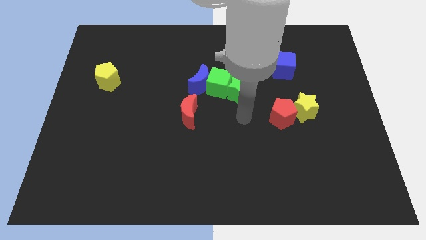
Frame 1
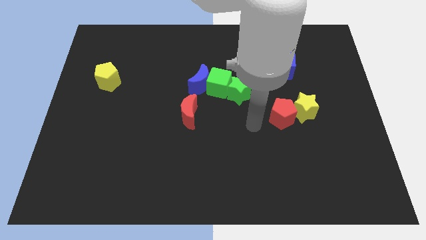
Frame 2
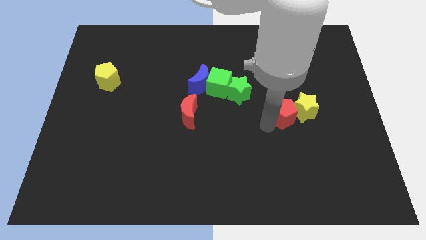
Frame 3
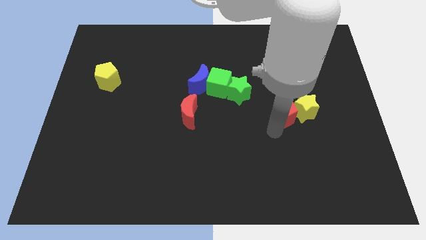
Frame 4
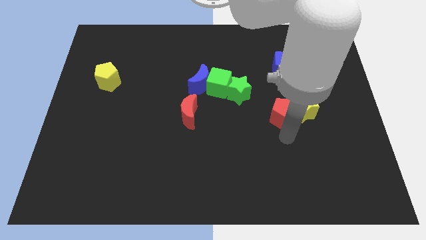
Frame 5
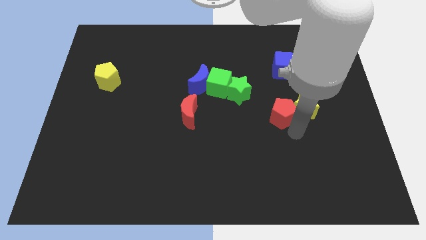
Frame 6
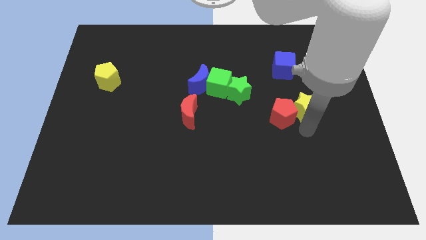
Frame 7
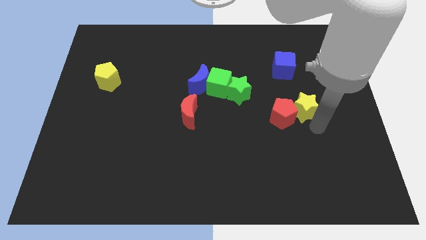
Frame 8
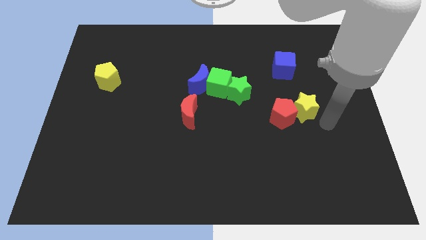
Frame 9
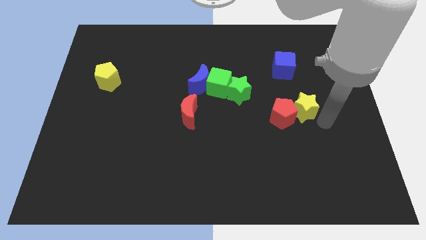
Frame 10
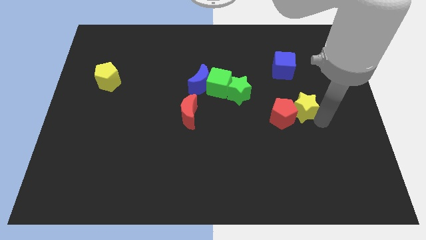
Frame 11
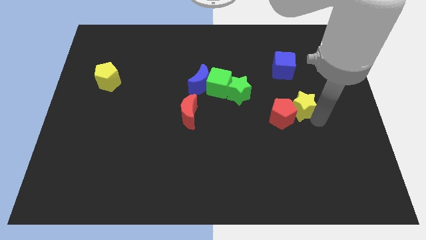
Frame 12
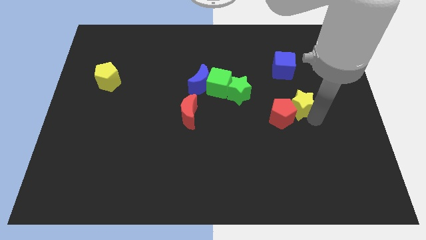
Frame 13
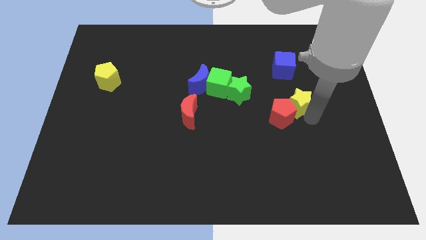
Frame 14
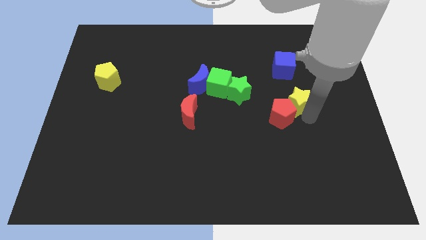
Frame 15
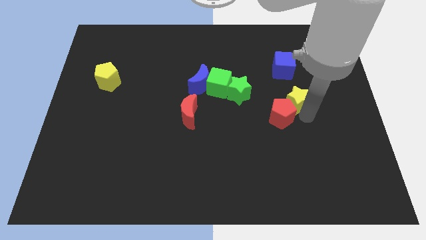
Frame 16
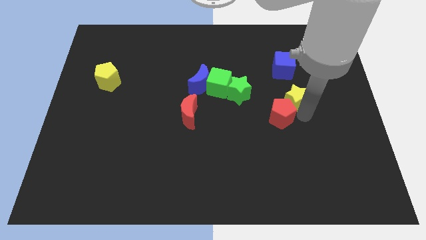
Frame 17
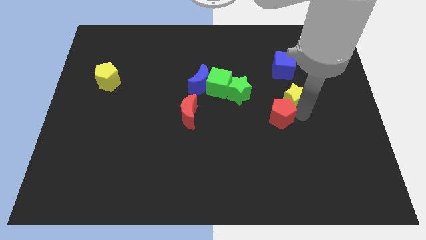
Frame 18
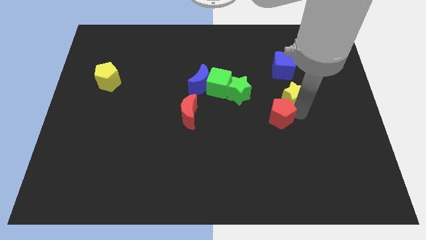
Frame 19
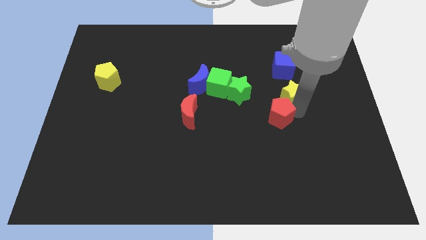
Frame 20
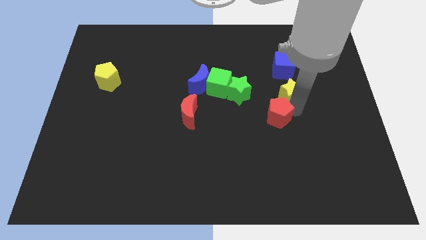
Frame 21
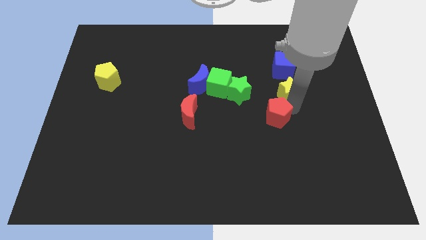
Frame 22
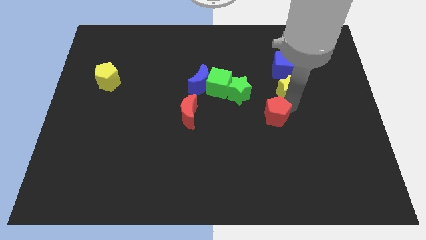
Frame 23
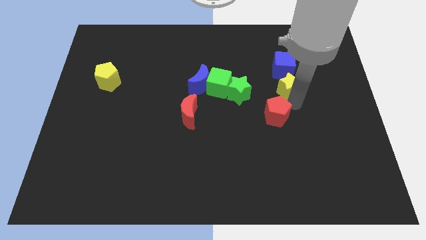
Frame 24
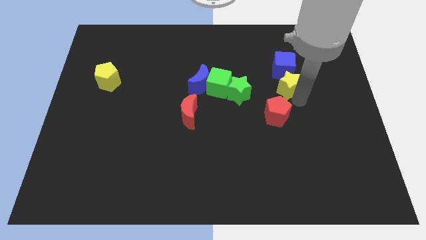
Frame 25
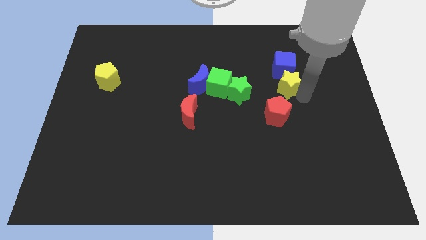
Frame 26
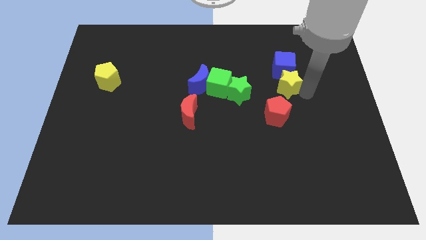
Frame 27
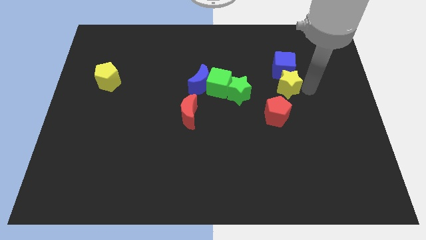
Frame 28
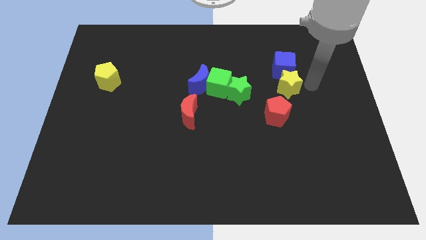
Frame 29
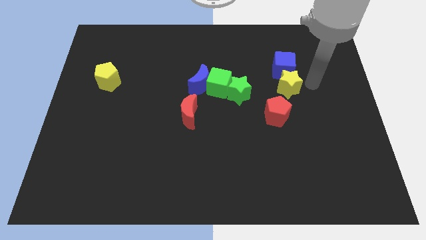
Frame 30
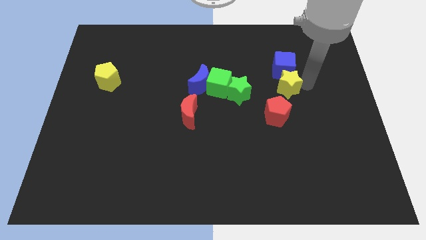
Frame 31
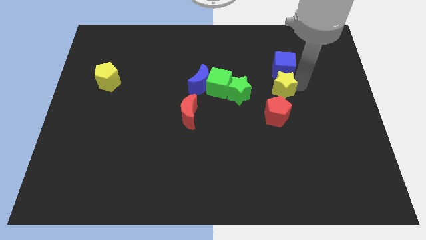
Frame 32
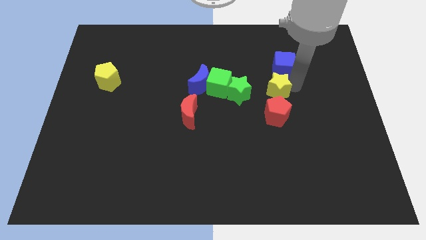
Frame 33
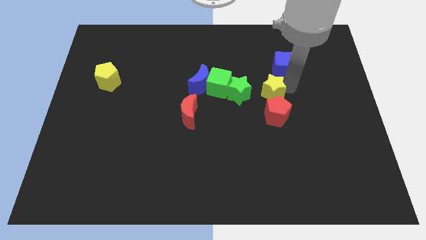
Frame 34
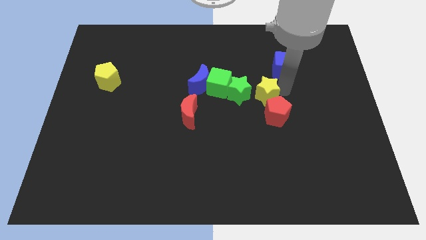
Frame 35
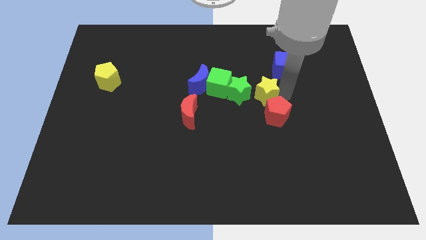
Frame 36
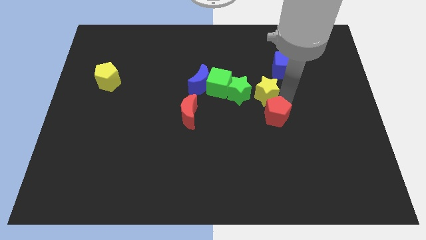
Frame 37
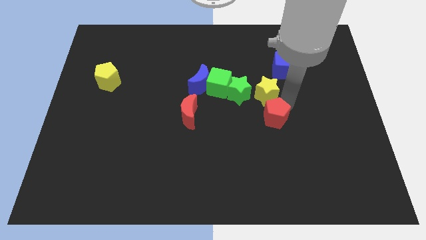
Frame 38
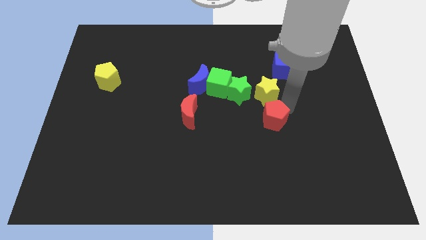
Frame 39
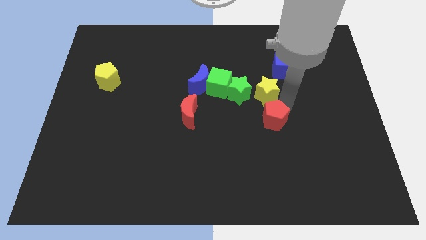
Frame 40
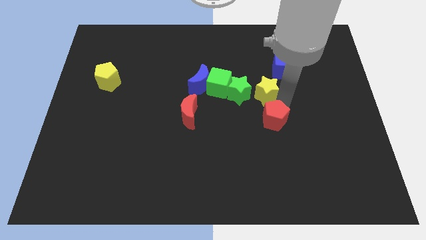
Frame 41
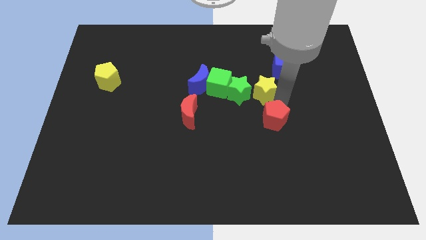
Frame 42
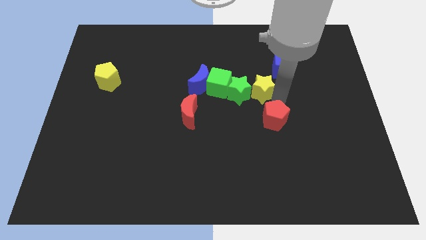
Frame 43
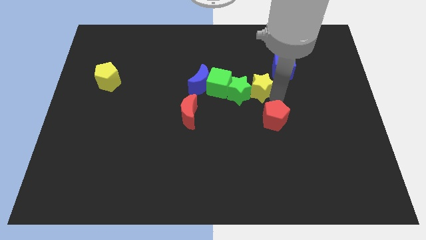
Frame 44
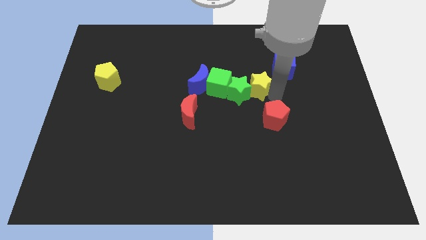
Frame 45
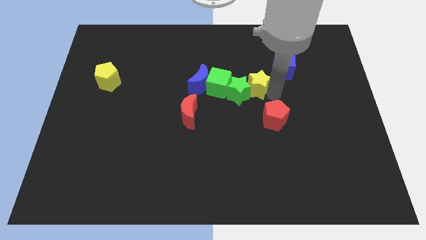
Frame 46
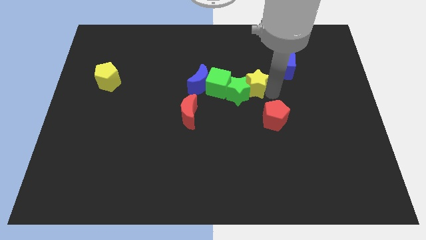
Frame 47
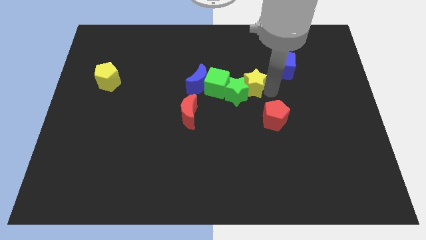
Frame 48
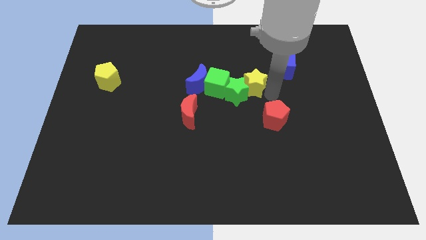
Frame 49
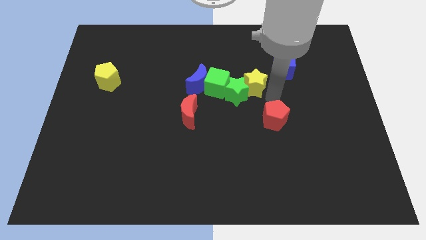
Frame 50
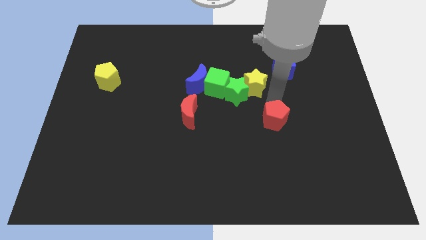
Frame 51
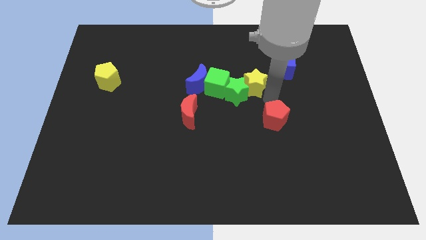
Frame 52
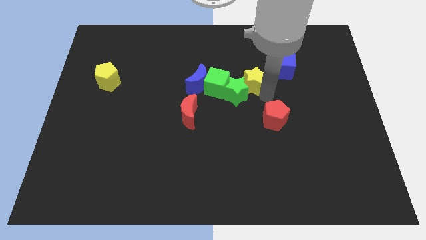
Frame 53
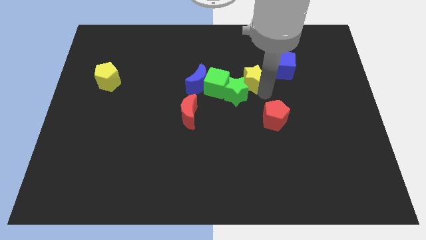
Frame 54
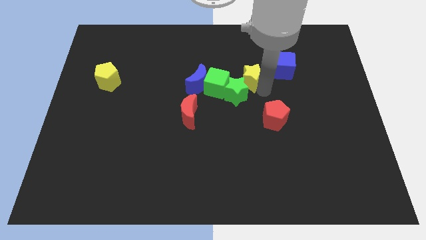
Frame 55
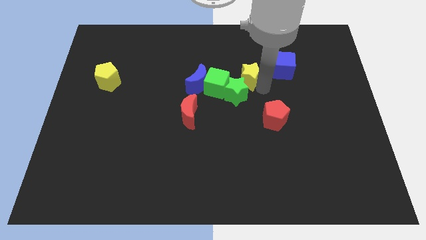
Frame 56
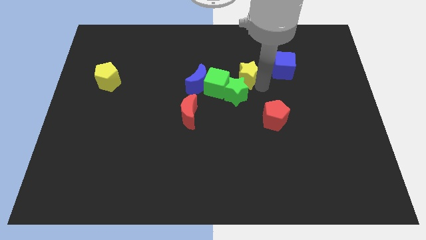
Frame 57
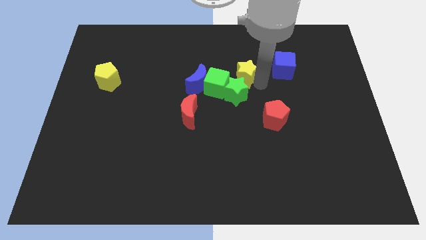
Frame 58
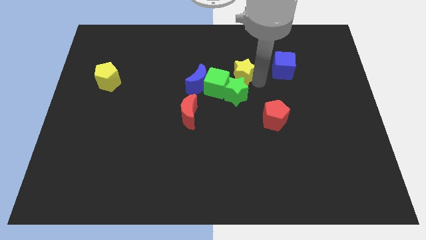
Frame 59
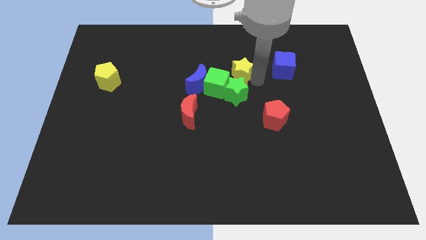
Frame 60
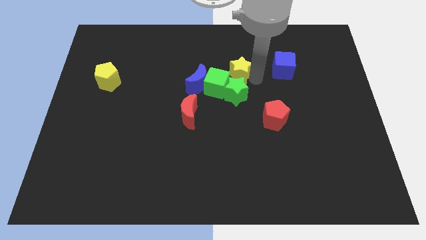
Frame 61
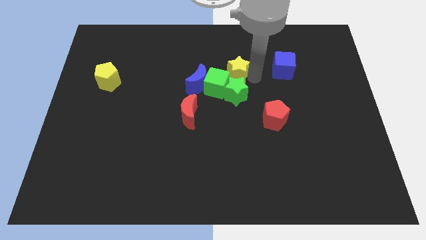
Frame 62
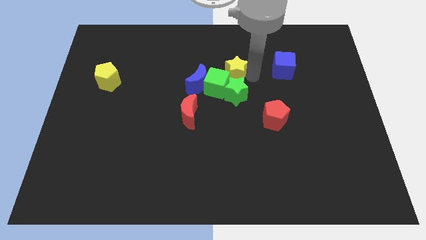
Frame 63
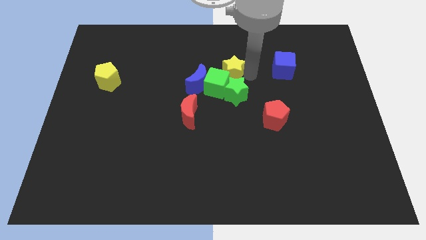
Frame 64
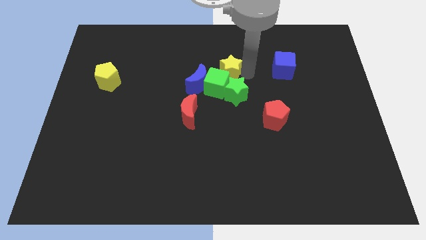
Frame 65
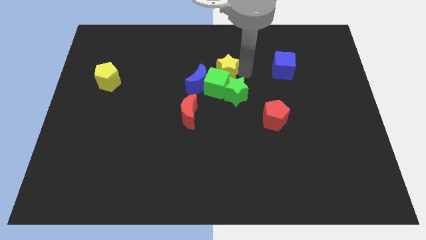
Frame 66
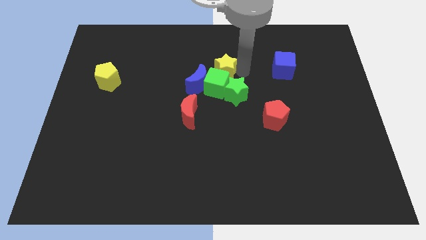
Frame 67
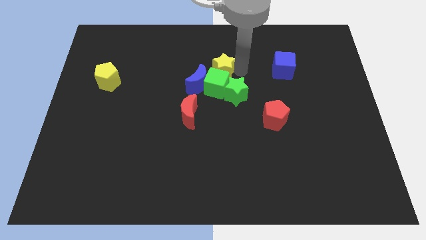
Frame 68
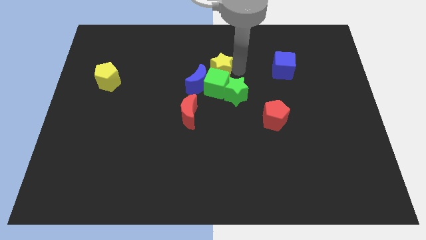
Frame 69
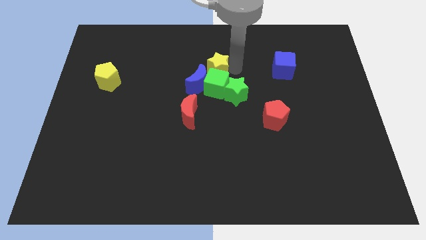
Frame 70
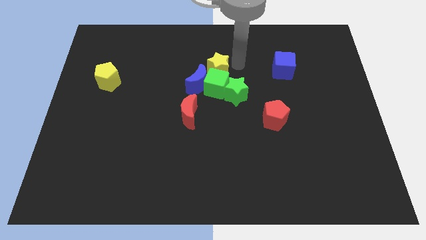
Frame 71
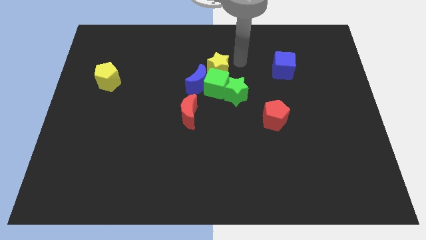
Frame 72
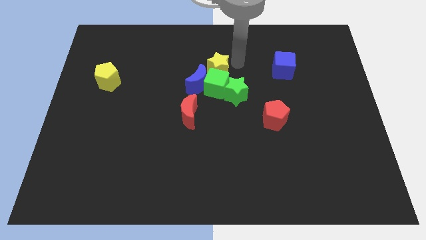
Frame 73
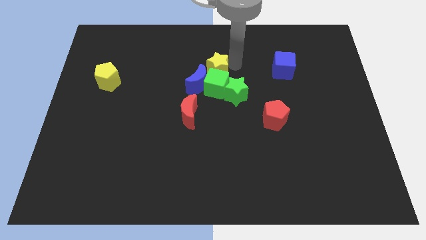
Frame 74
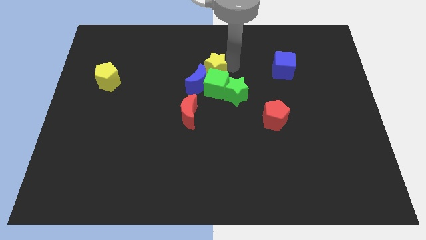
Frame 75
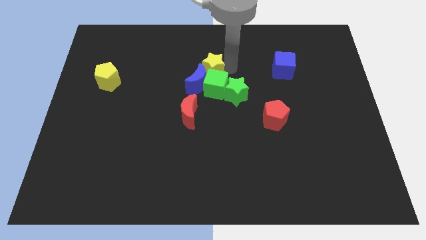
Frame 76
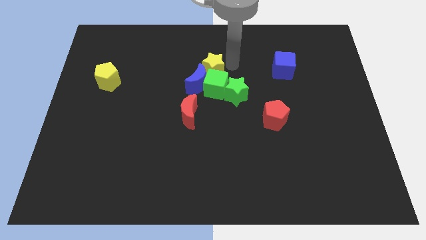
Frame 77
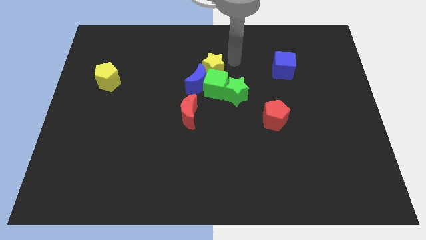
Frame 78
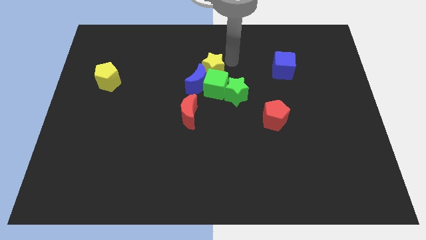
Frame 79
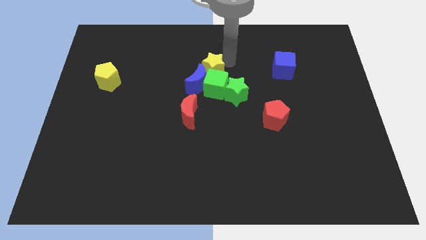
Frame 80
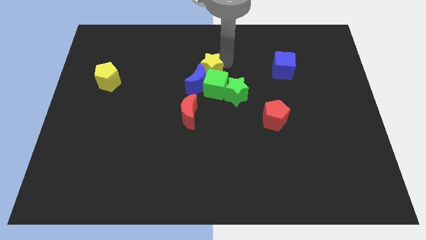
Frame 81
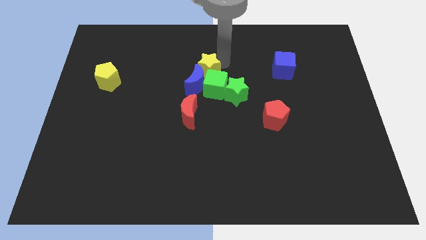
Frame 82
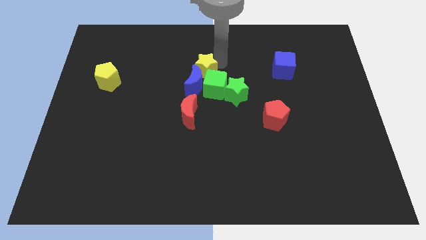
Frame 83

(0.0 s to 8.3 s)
slide the yellow star to the top side of the red moon
